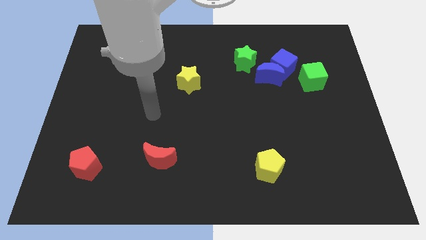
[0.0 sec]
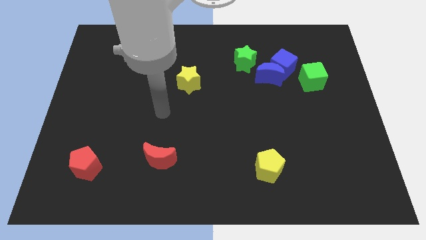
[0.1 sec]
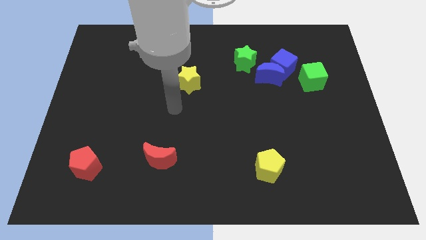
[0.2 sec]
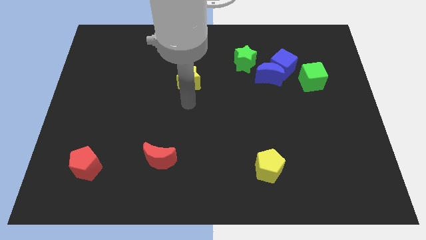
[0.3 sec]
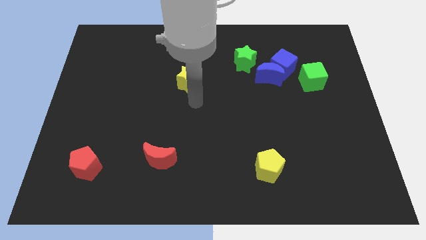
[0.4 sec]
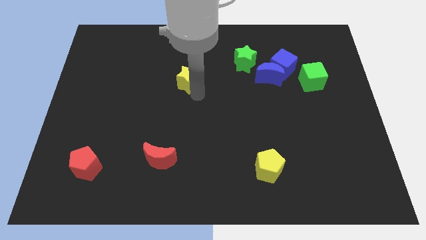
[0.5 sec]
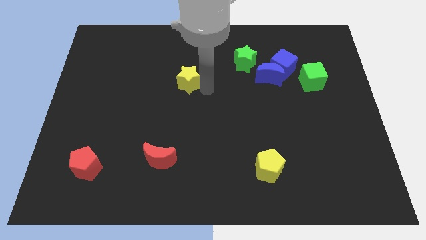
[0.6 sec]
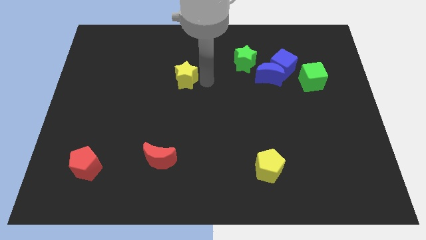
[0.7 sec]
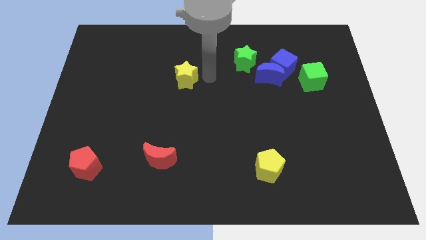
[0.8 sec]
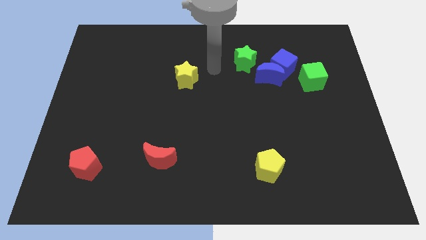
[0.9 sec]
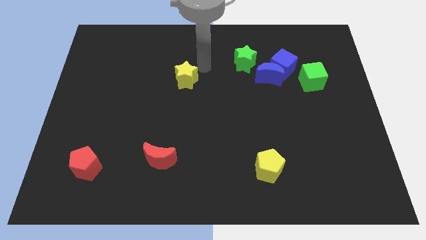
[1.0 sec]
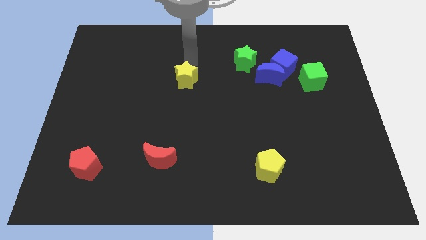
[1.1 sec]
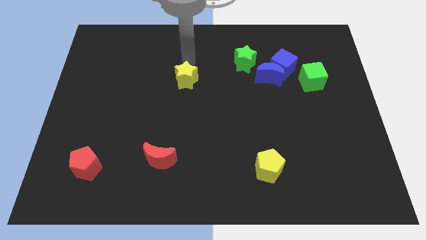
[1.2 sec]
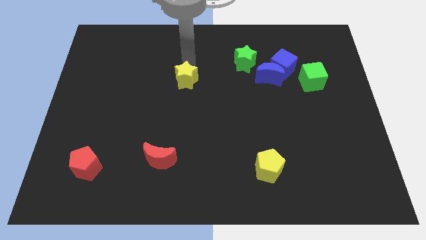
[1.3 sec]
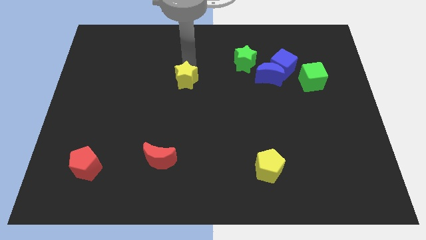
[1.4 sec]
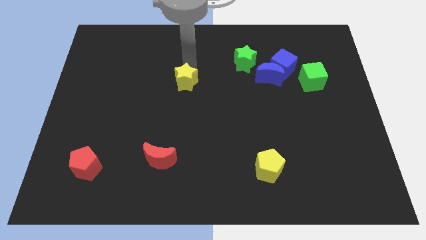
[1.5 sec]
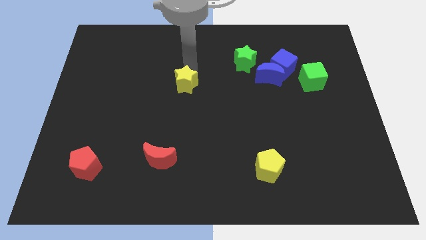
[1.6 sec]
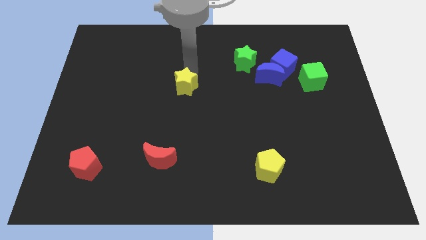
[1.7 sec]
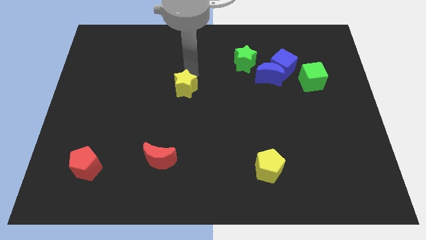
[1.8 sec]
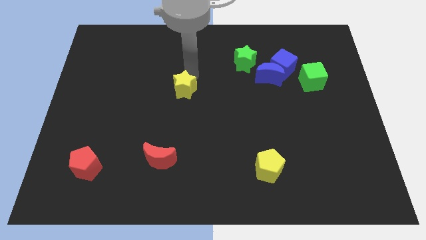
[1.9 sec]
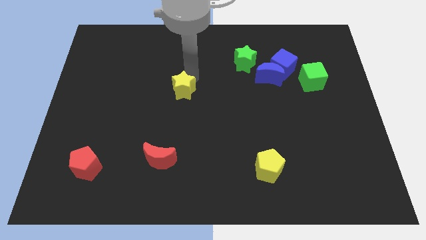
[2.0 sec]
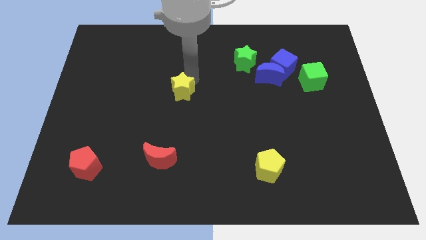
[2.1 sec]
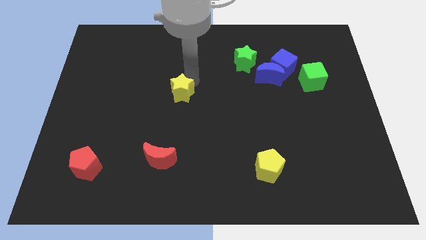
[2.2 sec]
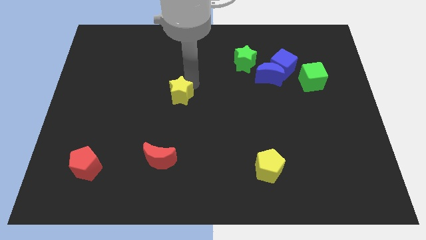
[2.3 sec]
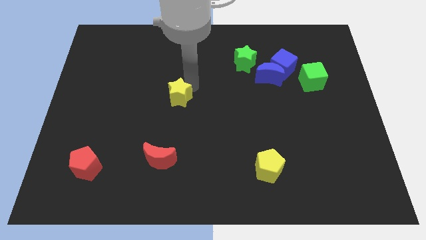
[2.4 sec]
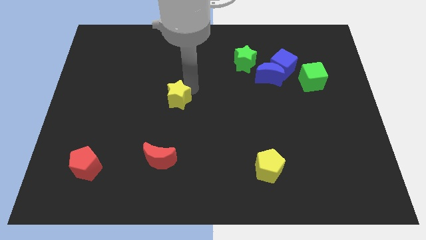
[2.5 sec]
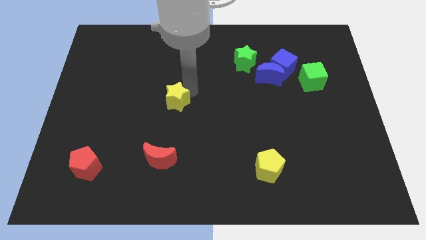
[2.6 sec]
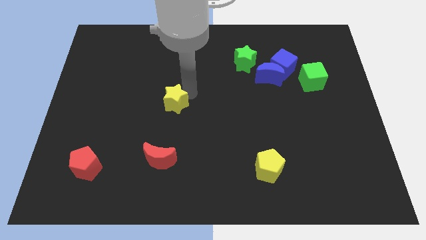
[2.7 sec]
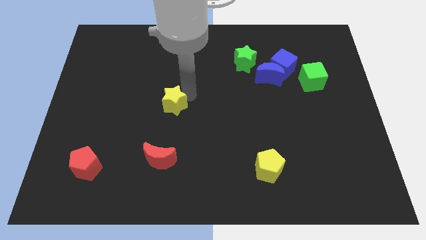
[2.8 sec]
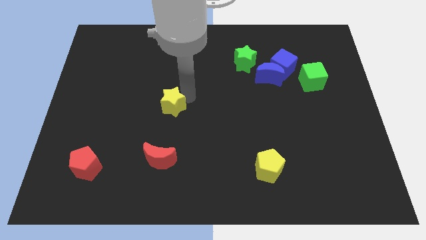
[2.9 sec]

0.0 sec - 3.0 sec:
slide the yellow star a little down

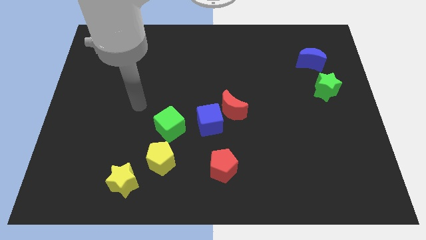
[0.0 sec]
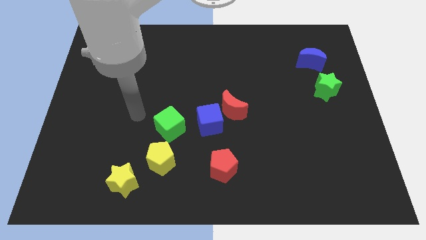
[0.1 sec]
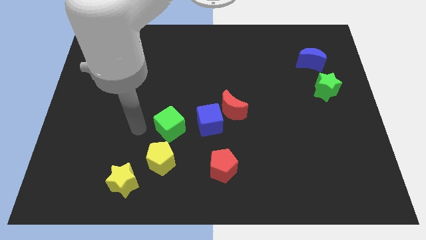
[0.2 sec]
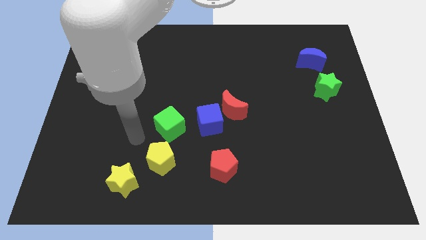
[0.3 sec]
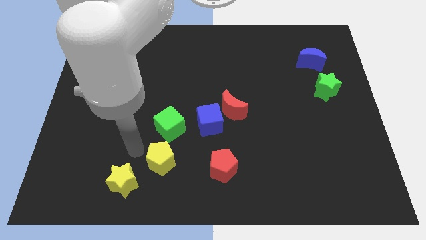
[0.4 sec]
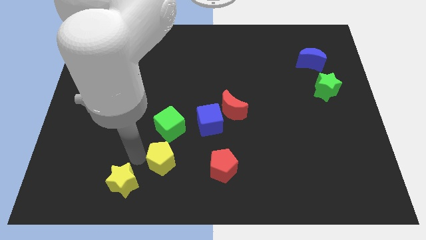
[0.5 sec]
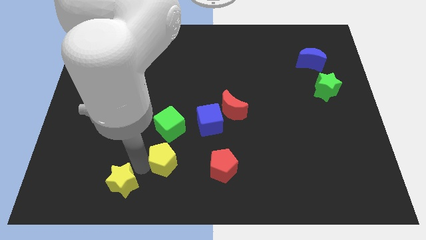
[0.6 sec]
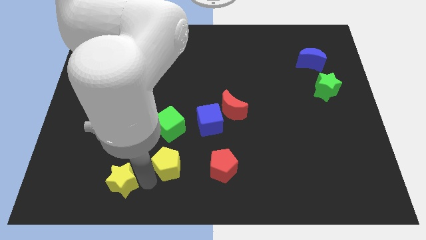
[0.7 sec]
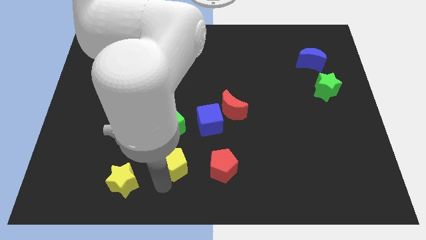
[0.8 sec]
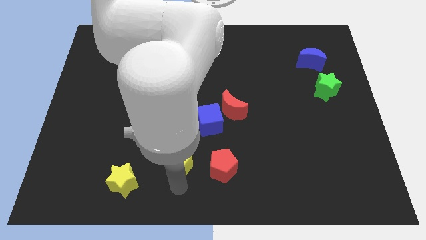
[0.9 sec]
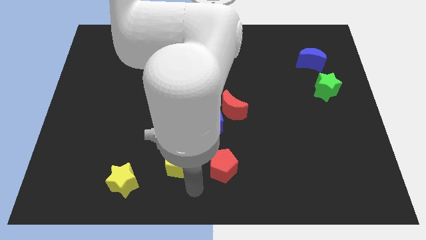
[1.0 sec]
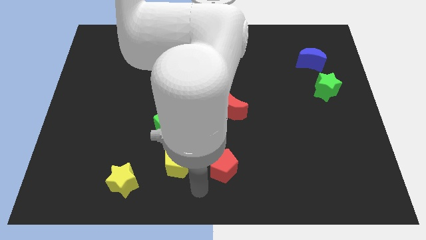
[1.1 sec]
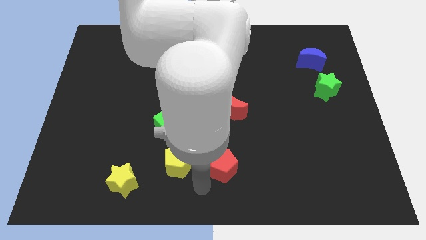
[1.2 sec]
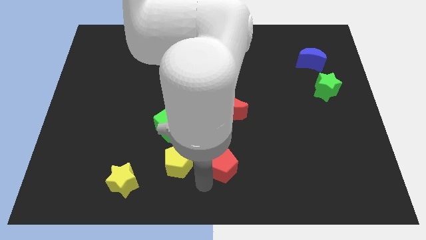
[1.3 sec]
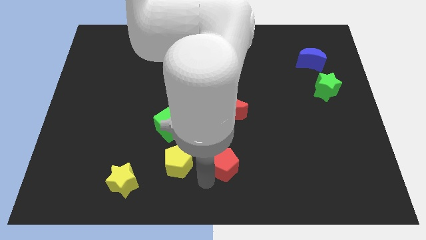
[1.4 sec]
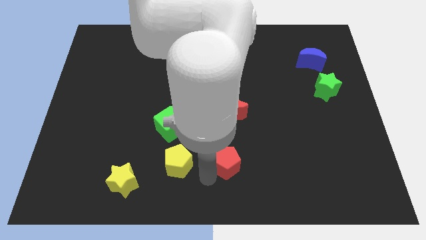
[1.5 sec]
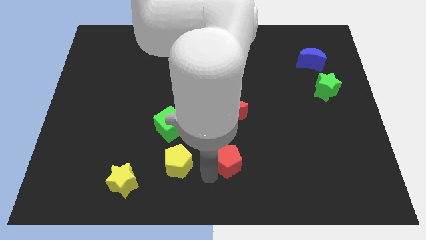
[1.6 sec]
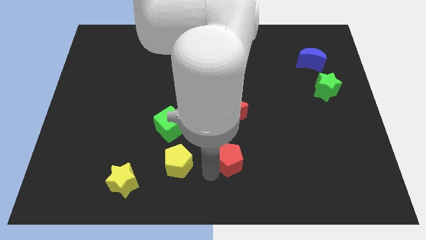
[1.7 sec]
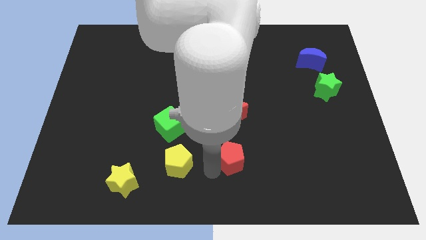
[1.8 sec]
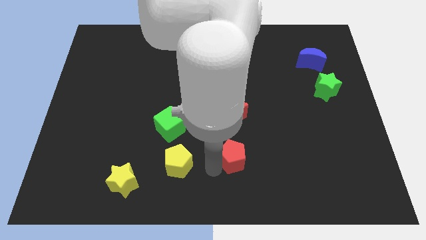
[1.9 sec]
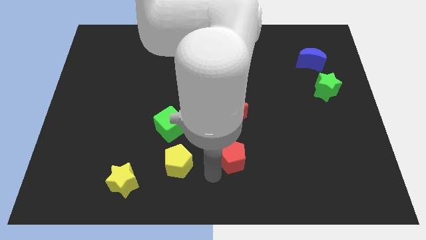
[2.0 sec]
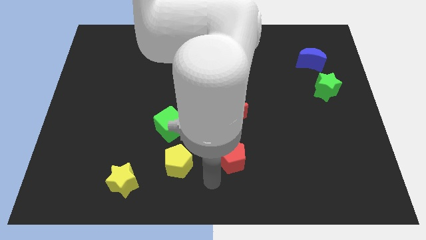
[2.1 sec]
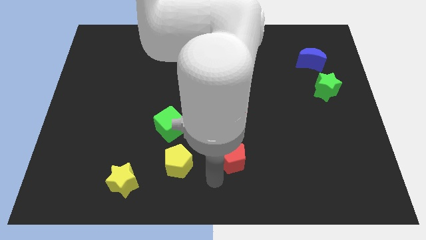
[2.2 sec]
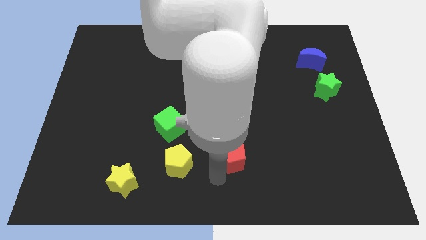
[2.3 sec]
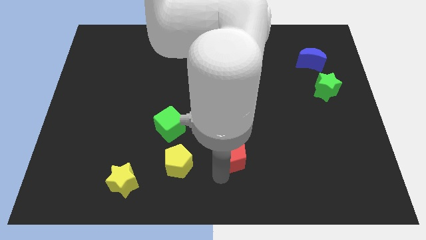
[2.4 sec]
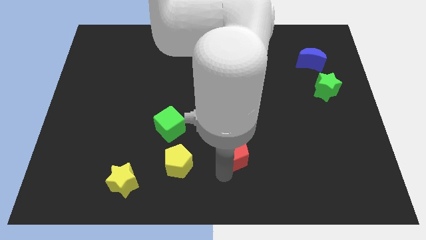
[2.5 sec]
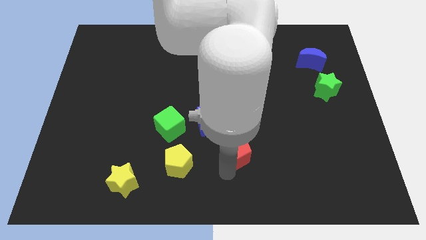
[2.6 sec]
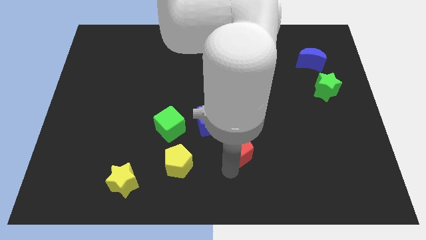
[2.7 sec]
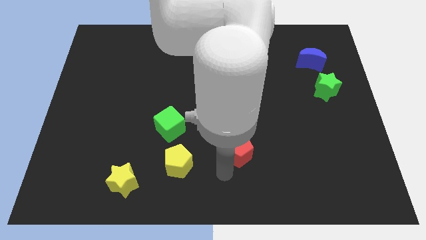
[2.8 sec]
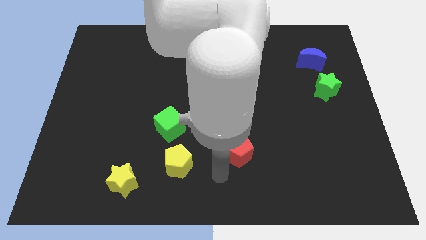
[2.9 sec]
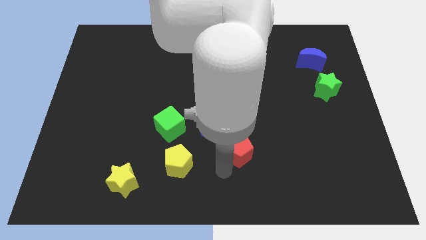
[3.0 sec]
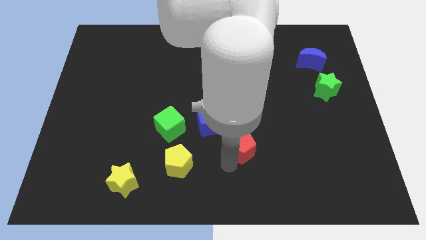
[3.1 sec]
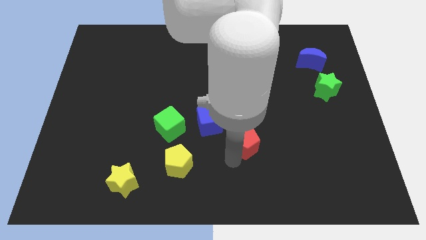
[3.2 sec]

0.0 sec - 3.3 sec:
push the red pentagon upwards and right somewhat

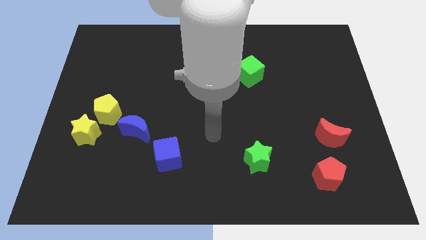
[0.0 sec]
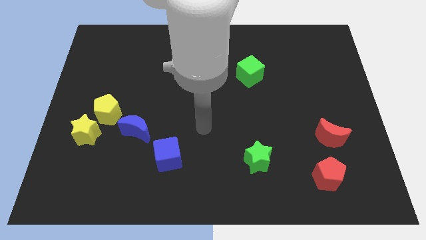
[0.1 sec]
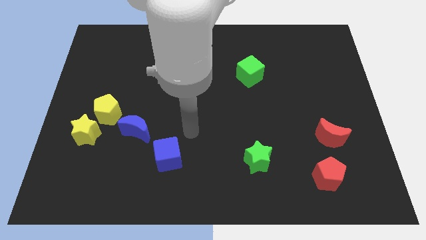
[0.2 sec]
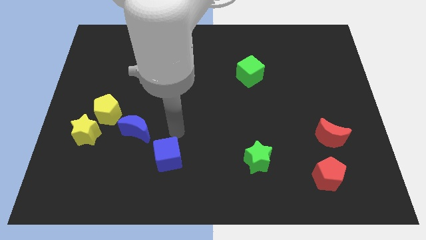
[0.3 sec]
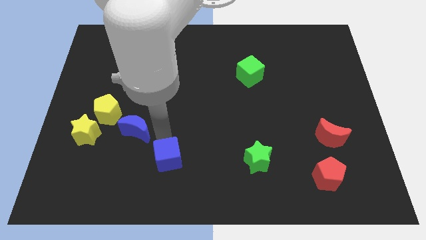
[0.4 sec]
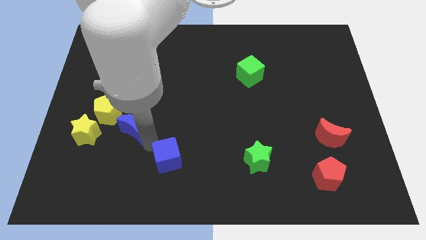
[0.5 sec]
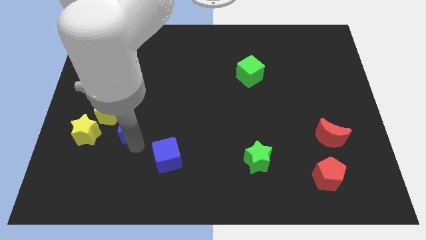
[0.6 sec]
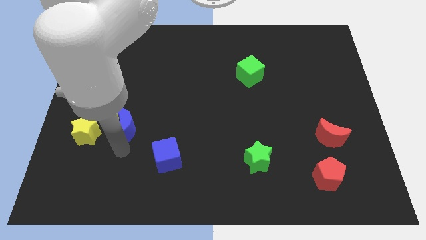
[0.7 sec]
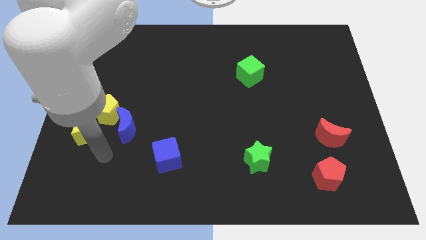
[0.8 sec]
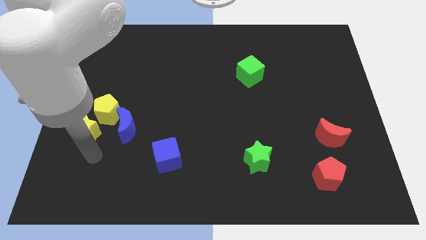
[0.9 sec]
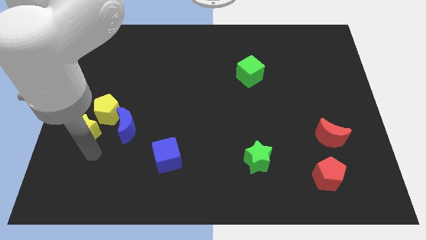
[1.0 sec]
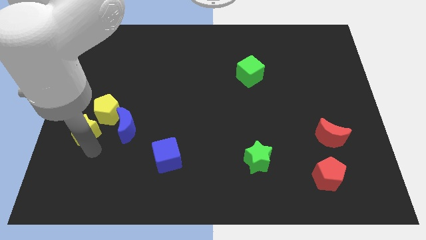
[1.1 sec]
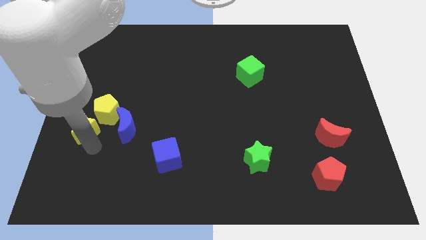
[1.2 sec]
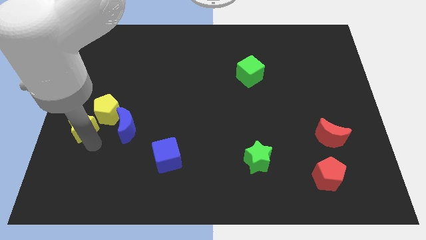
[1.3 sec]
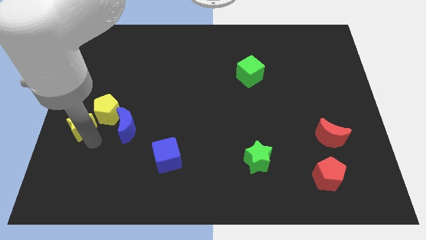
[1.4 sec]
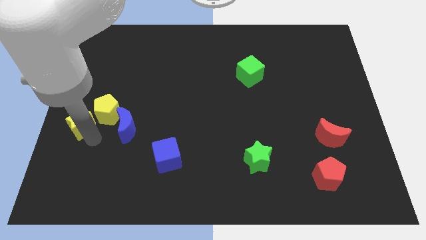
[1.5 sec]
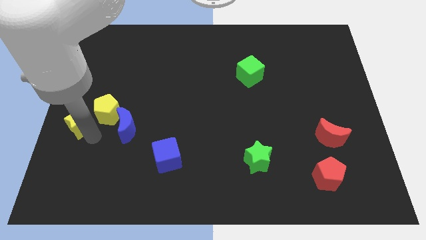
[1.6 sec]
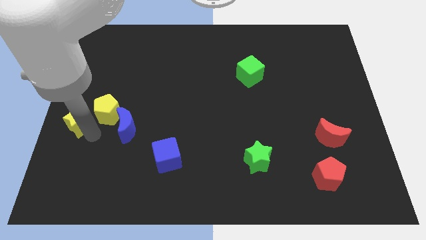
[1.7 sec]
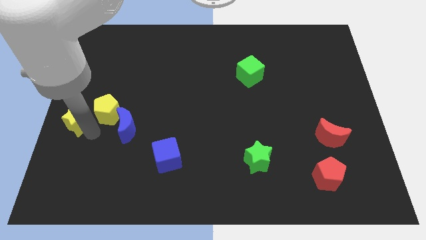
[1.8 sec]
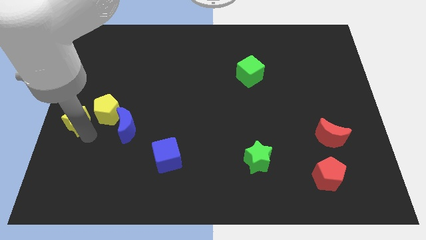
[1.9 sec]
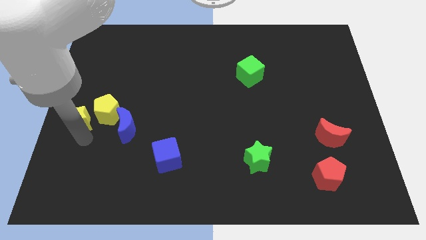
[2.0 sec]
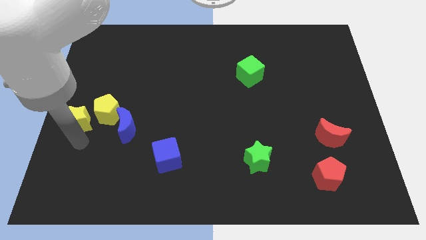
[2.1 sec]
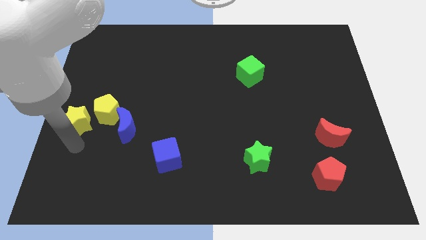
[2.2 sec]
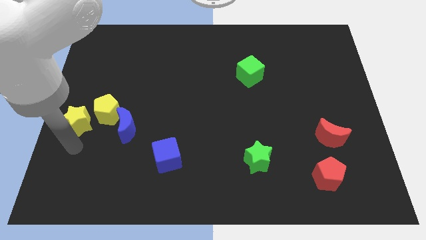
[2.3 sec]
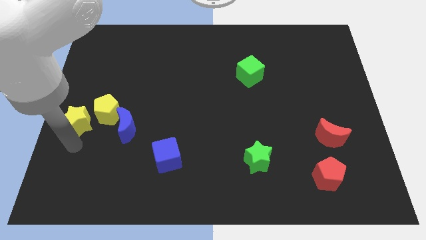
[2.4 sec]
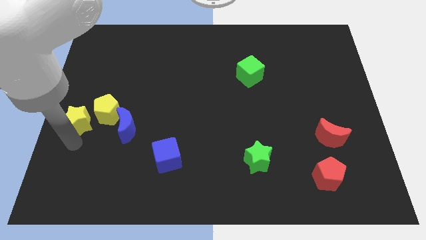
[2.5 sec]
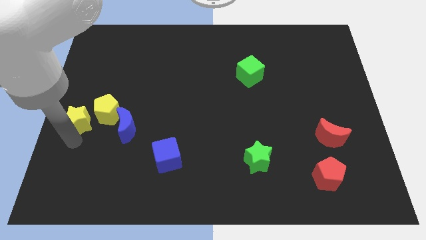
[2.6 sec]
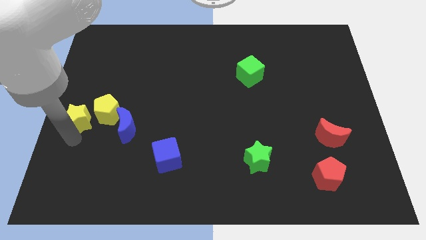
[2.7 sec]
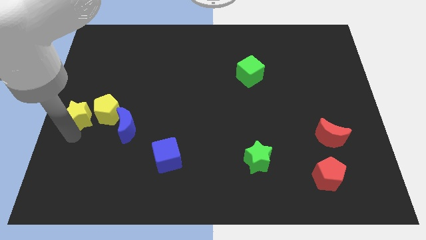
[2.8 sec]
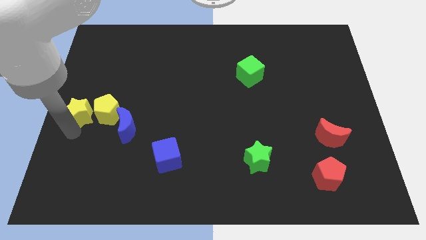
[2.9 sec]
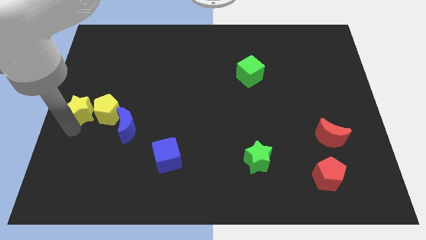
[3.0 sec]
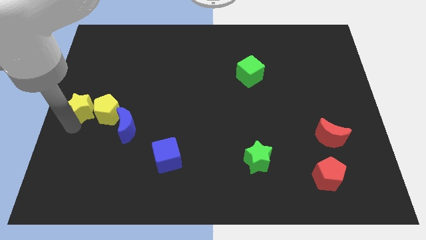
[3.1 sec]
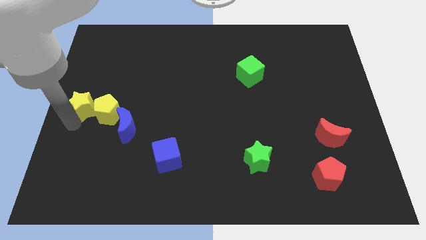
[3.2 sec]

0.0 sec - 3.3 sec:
slide the yellow star a little upwards
